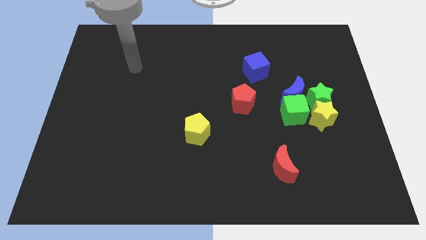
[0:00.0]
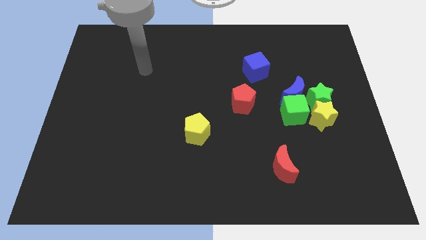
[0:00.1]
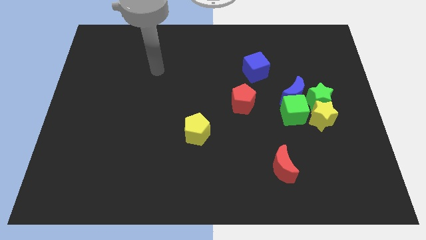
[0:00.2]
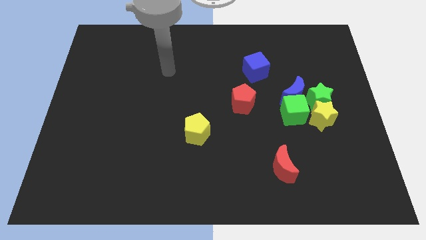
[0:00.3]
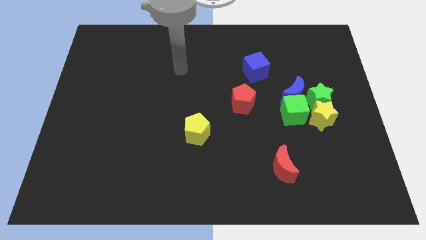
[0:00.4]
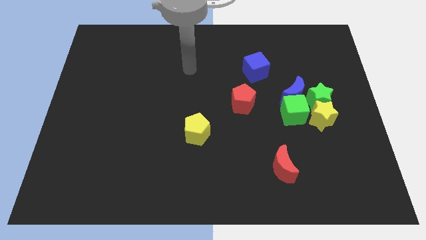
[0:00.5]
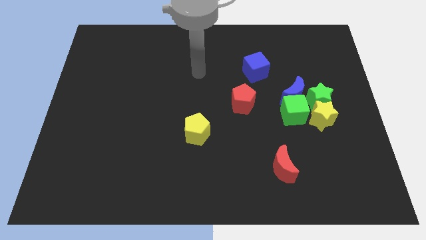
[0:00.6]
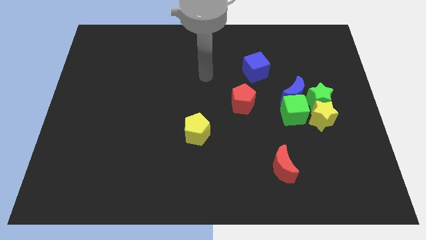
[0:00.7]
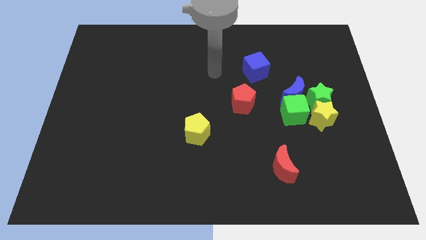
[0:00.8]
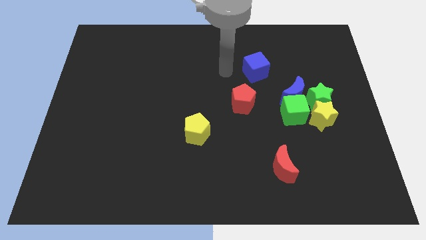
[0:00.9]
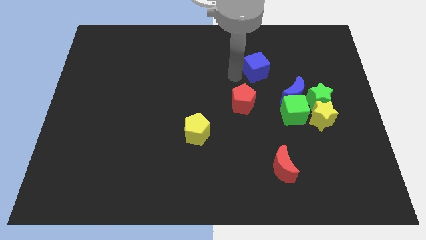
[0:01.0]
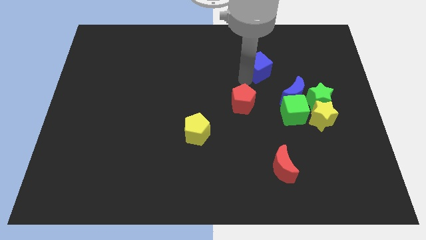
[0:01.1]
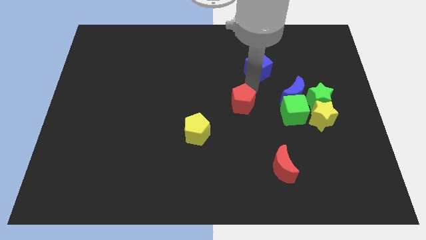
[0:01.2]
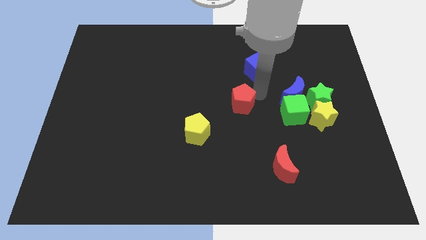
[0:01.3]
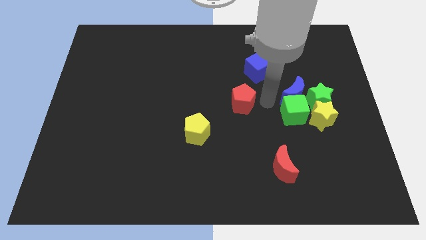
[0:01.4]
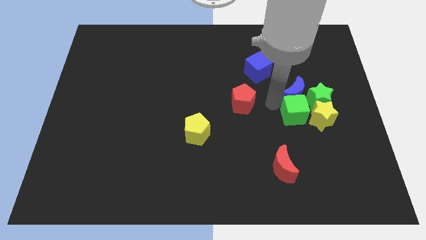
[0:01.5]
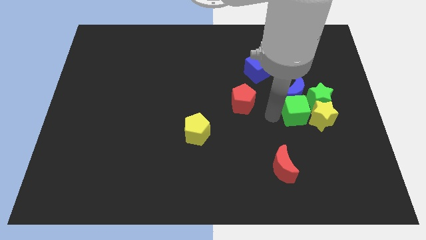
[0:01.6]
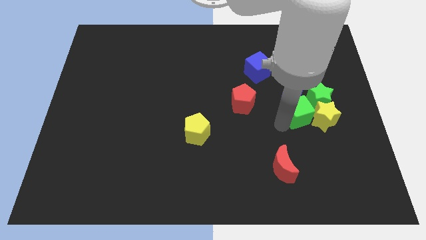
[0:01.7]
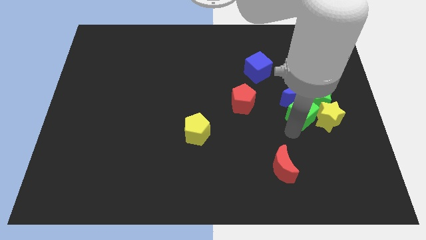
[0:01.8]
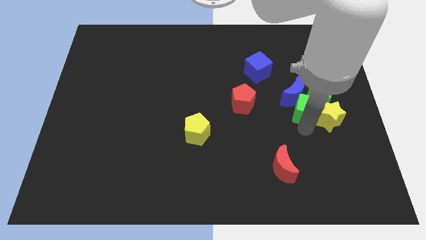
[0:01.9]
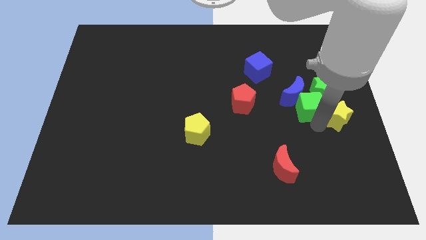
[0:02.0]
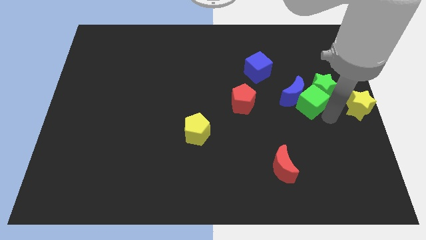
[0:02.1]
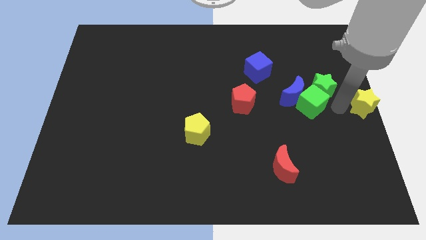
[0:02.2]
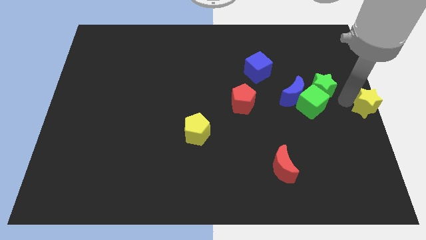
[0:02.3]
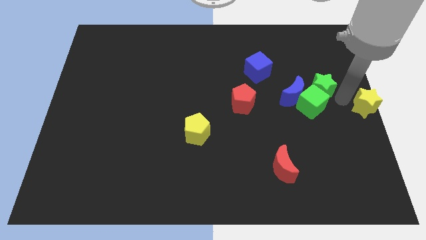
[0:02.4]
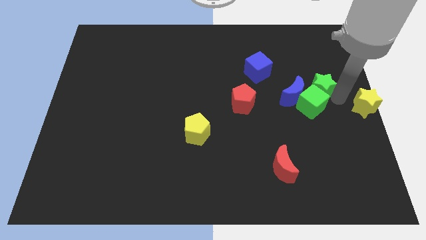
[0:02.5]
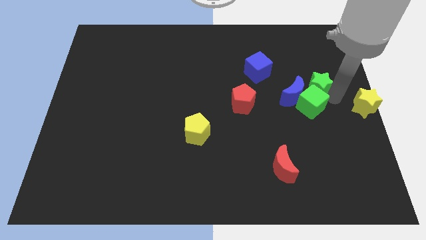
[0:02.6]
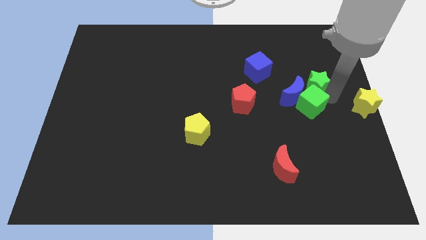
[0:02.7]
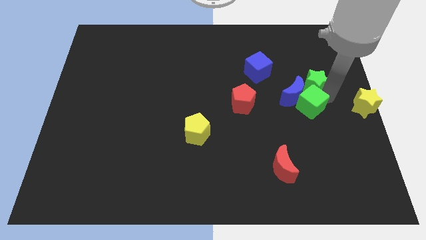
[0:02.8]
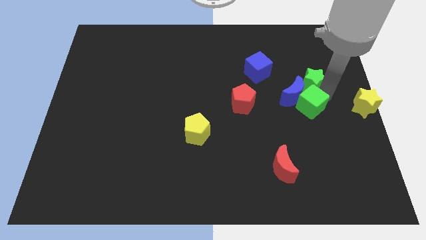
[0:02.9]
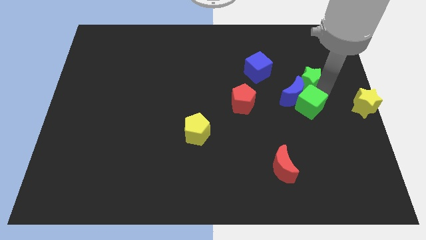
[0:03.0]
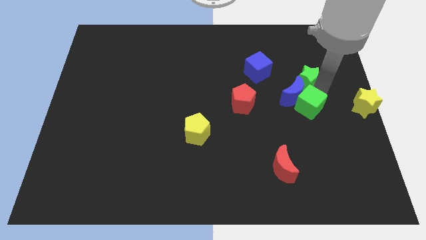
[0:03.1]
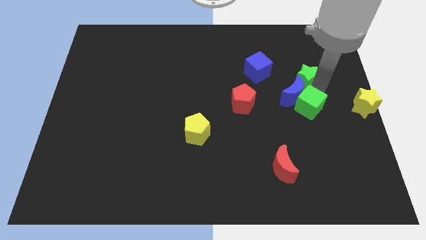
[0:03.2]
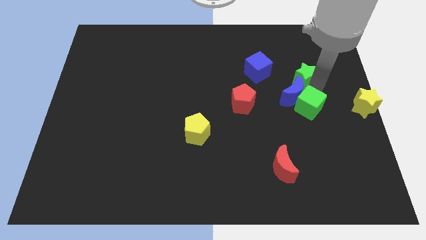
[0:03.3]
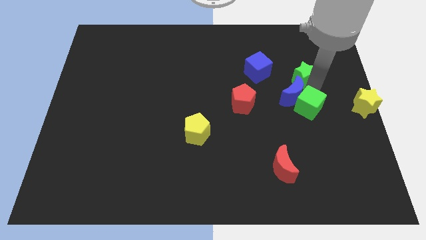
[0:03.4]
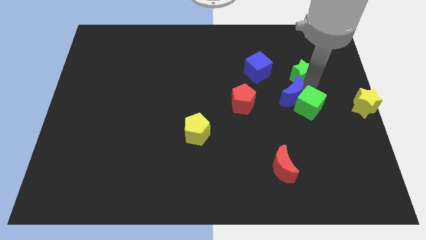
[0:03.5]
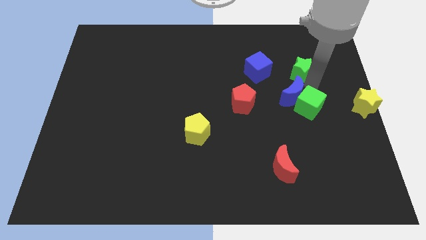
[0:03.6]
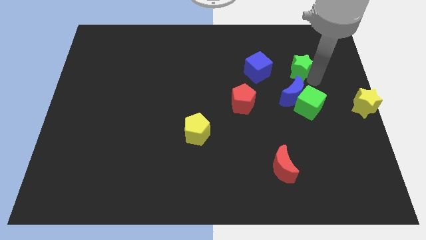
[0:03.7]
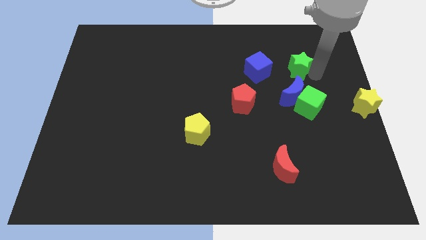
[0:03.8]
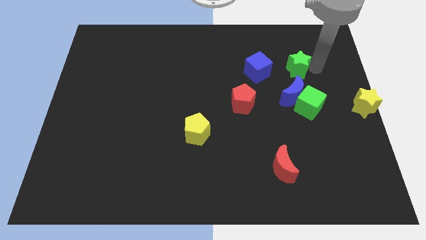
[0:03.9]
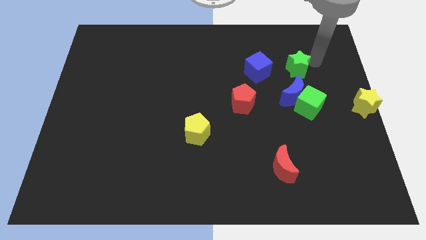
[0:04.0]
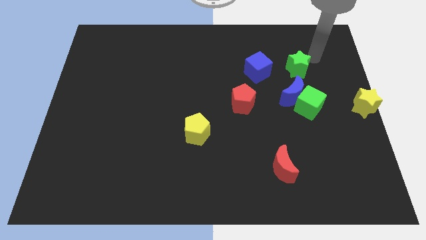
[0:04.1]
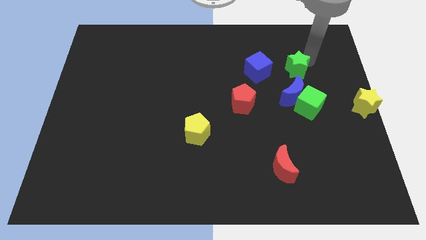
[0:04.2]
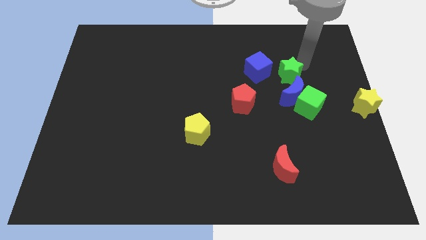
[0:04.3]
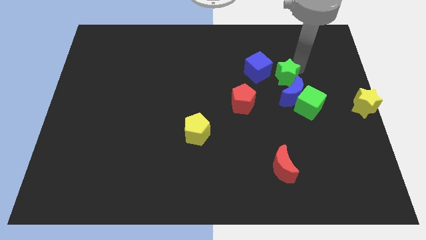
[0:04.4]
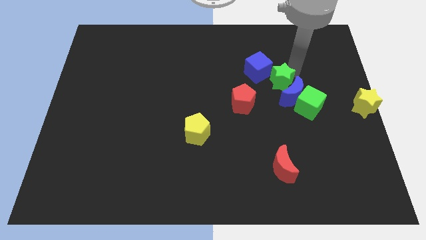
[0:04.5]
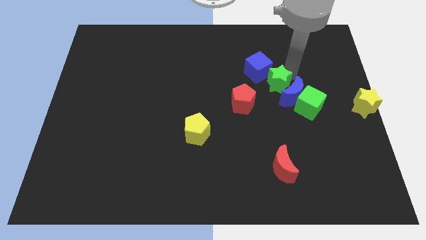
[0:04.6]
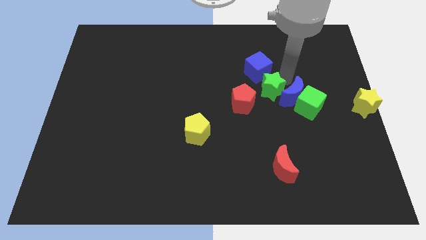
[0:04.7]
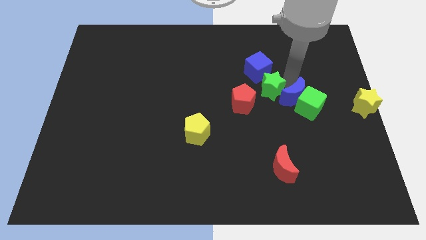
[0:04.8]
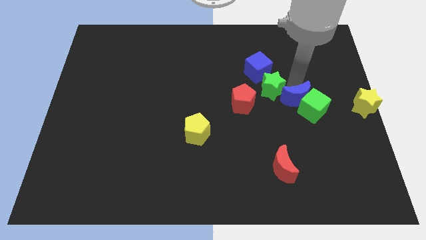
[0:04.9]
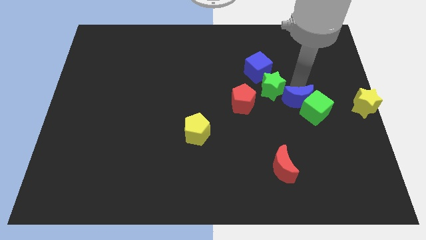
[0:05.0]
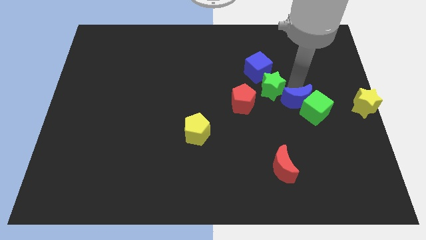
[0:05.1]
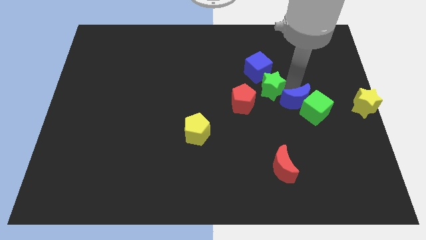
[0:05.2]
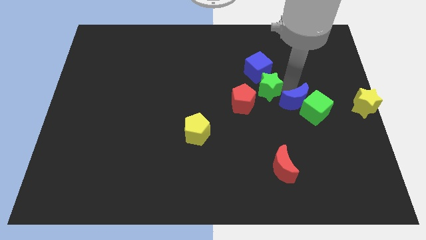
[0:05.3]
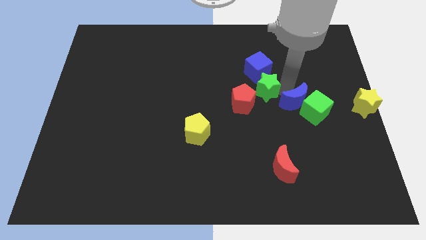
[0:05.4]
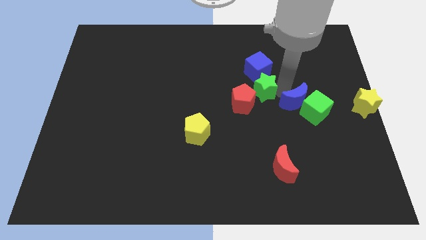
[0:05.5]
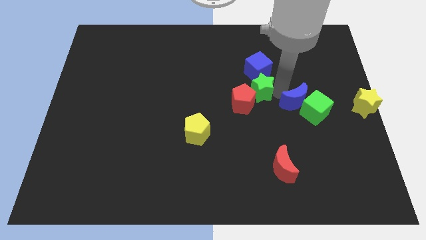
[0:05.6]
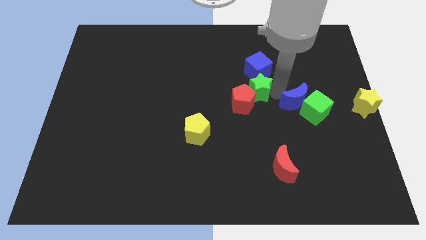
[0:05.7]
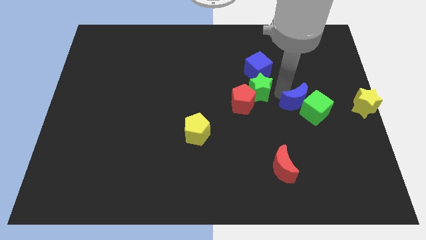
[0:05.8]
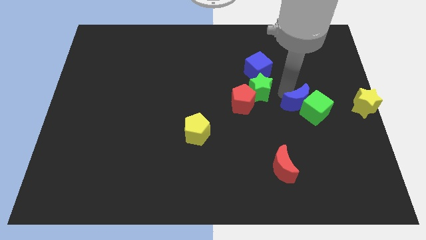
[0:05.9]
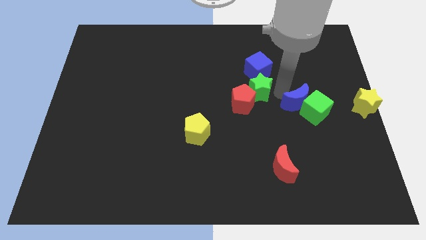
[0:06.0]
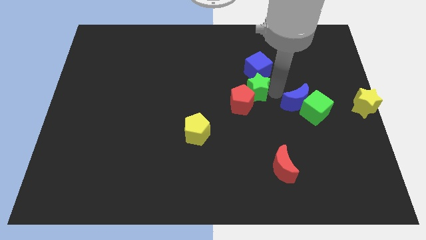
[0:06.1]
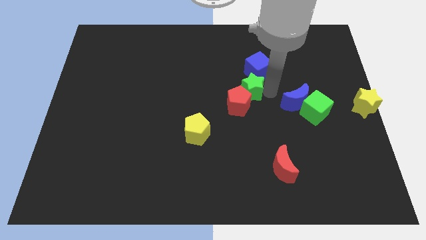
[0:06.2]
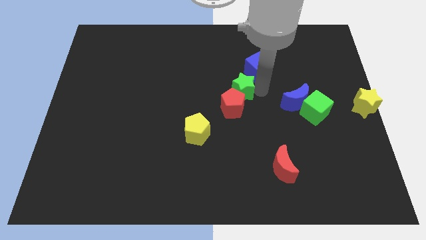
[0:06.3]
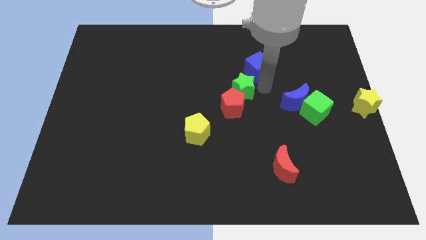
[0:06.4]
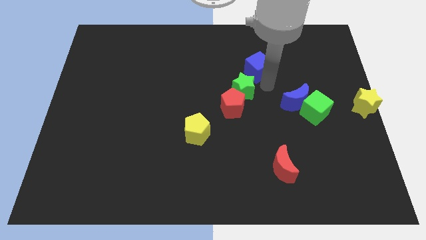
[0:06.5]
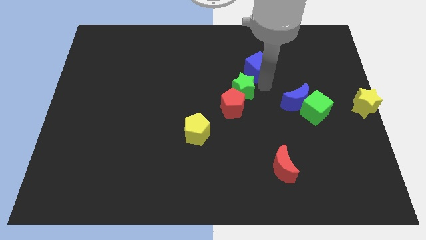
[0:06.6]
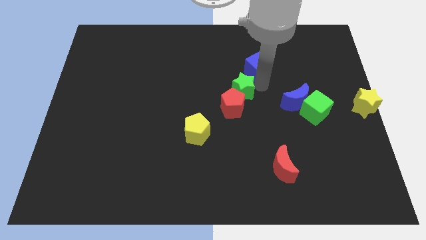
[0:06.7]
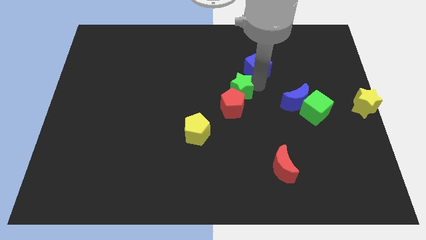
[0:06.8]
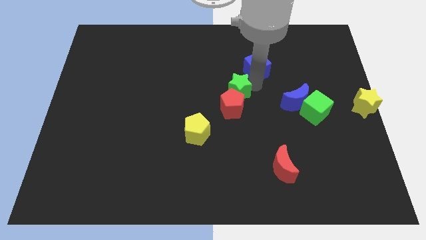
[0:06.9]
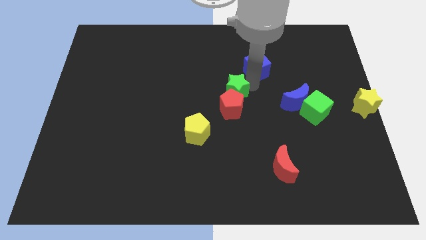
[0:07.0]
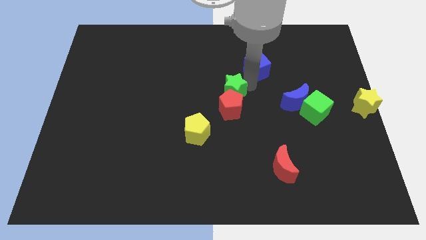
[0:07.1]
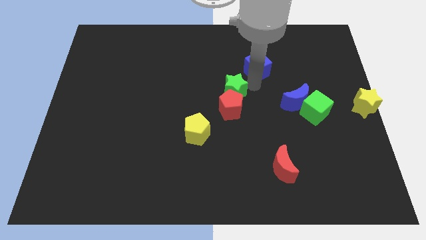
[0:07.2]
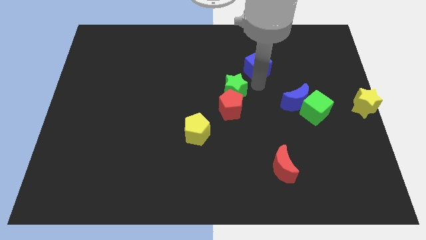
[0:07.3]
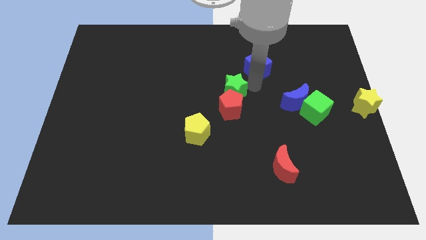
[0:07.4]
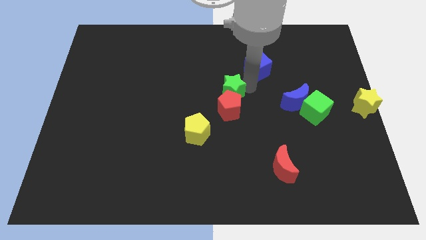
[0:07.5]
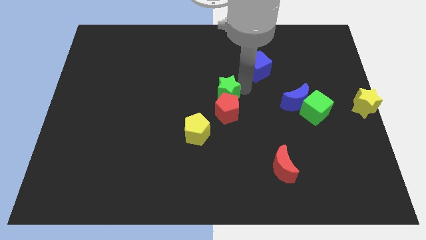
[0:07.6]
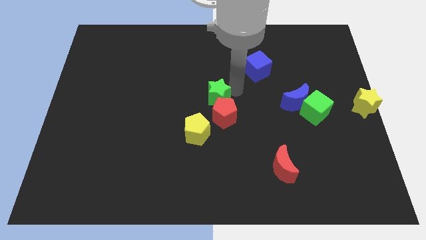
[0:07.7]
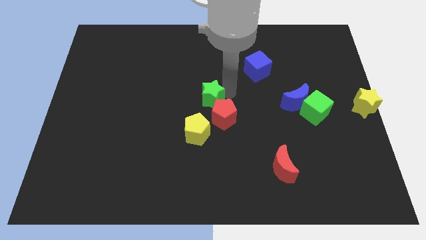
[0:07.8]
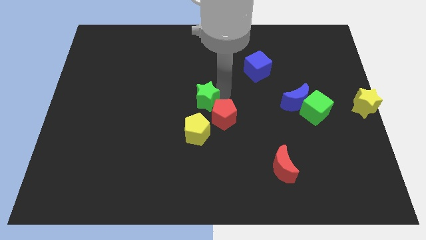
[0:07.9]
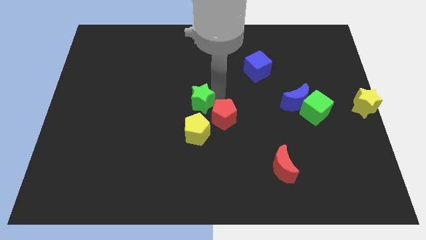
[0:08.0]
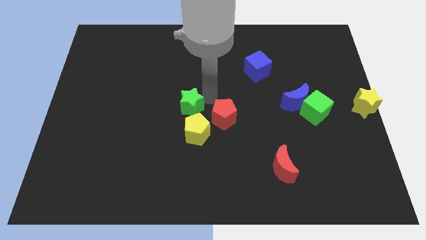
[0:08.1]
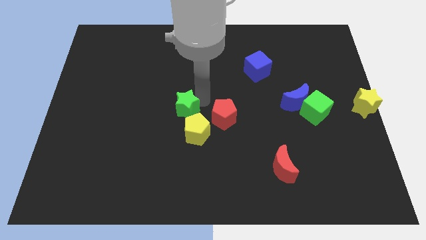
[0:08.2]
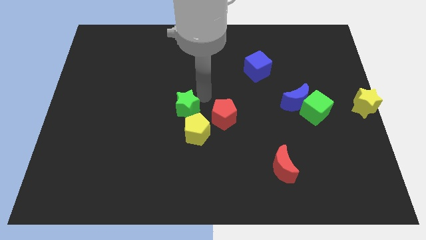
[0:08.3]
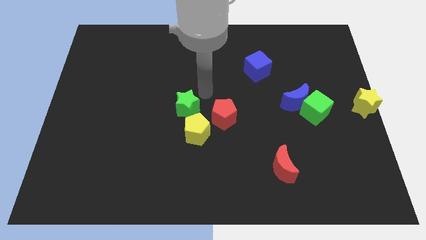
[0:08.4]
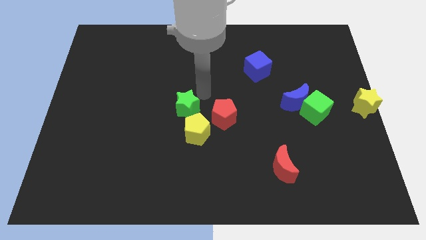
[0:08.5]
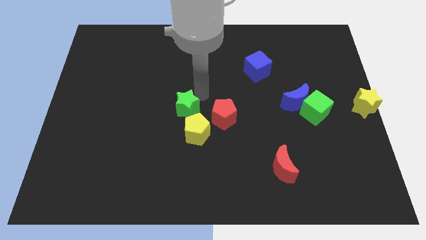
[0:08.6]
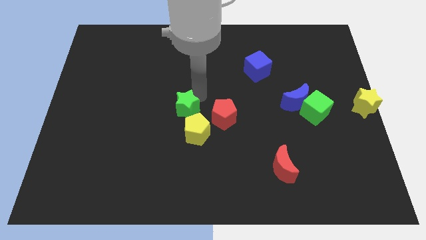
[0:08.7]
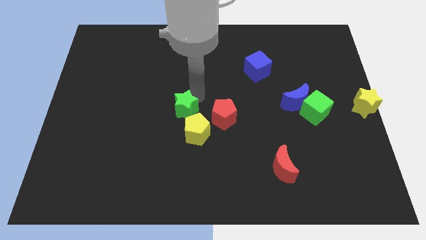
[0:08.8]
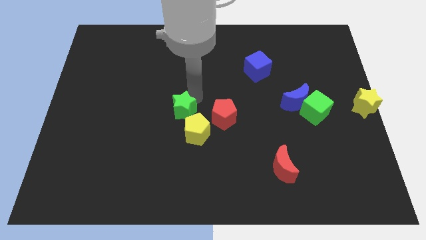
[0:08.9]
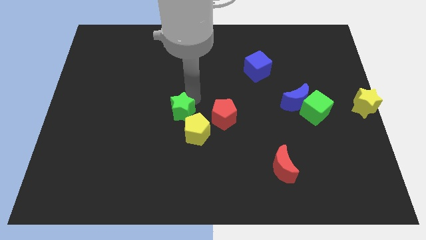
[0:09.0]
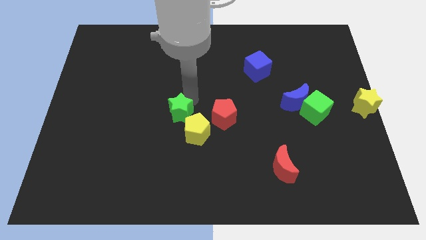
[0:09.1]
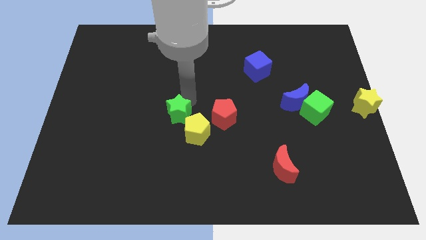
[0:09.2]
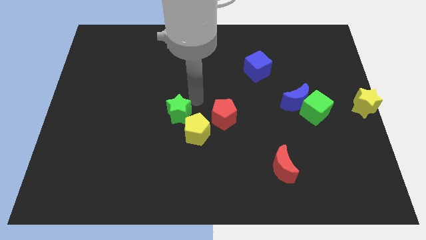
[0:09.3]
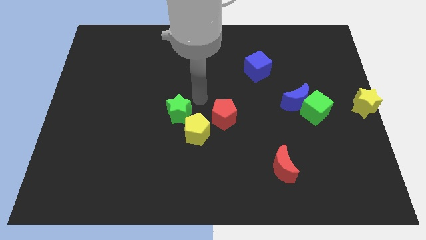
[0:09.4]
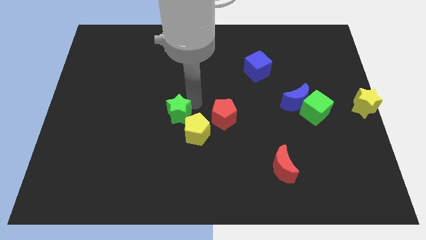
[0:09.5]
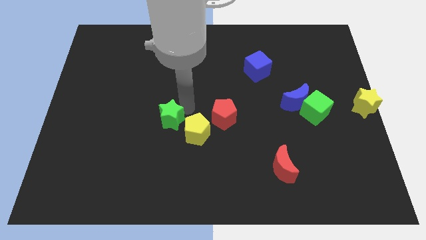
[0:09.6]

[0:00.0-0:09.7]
push the green star just left of the yellow pentagon
